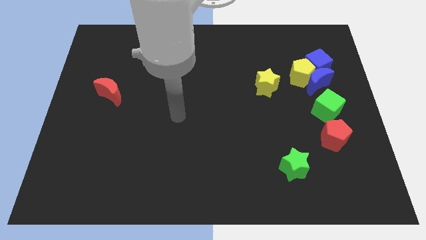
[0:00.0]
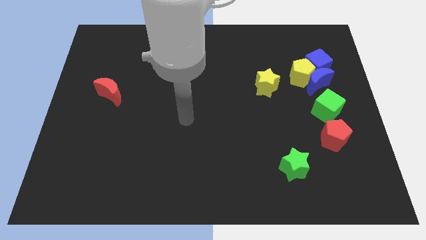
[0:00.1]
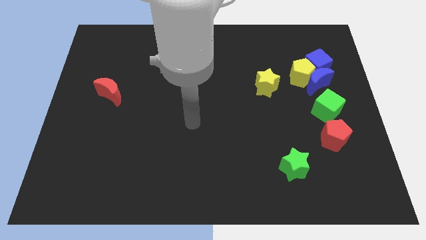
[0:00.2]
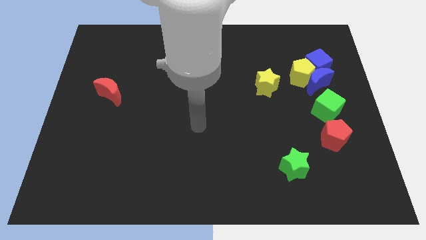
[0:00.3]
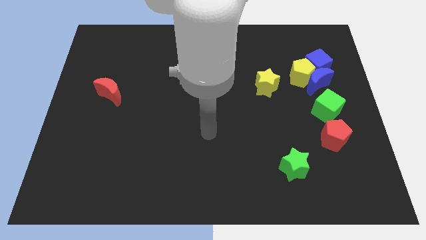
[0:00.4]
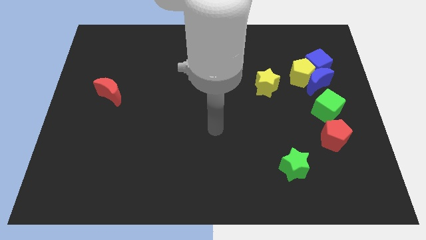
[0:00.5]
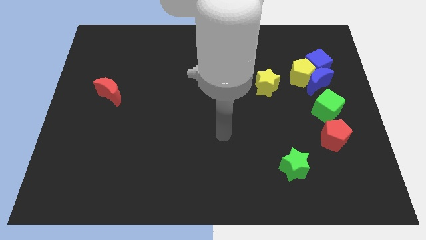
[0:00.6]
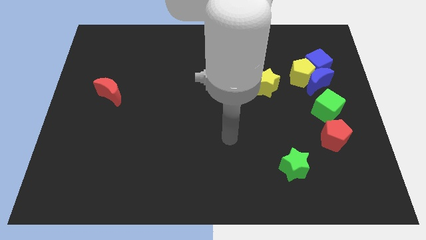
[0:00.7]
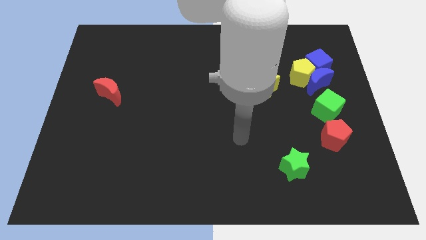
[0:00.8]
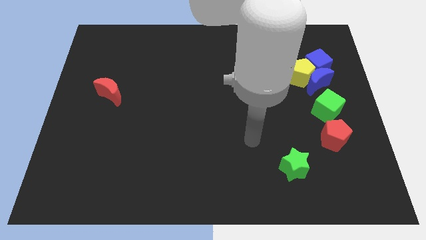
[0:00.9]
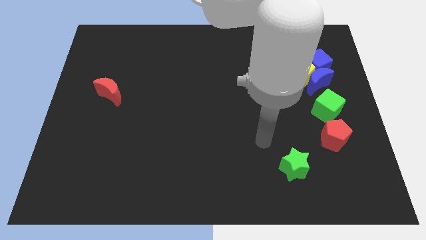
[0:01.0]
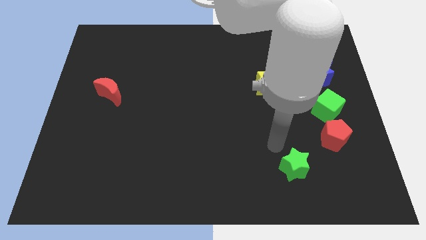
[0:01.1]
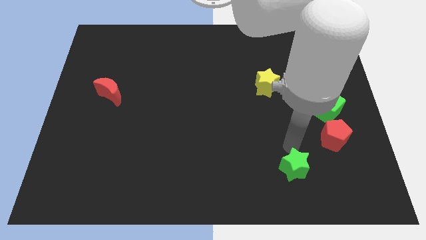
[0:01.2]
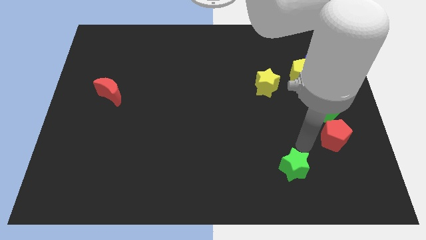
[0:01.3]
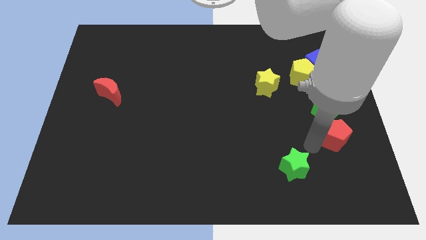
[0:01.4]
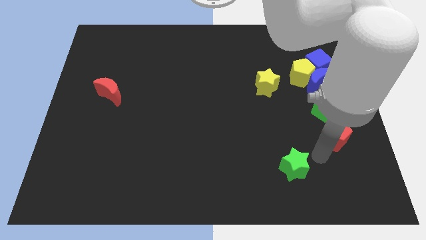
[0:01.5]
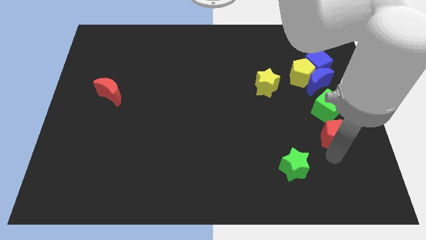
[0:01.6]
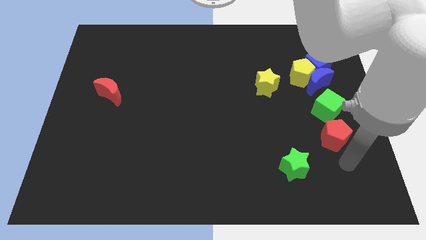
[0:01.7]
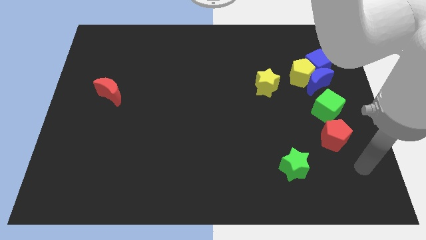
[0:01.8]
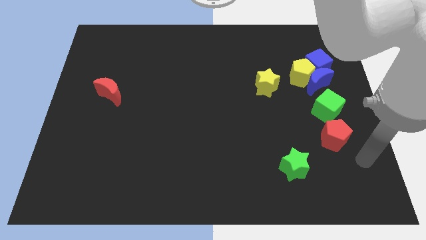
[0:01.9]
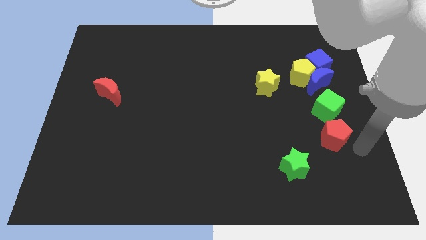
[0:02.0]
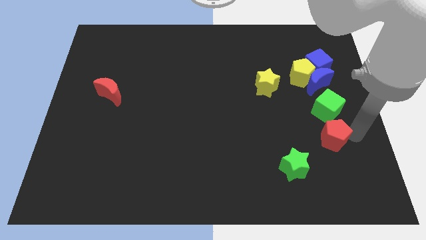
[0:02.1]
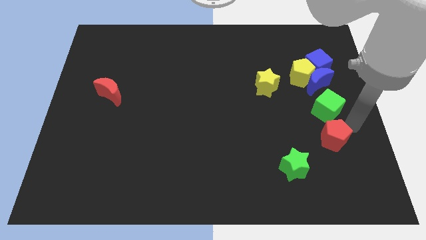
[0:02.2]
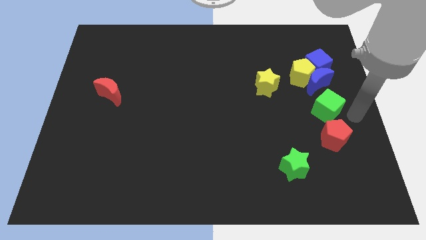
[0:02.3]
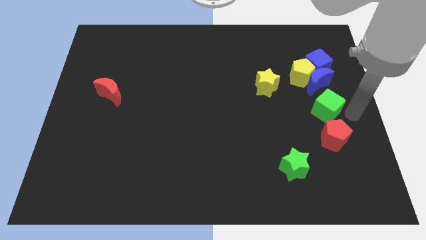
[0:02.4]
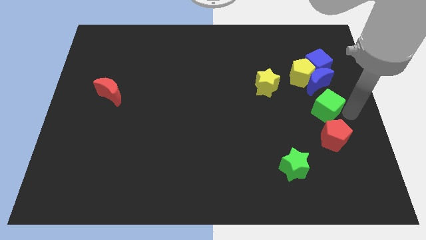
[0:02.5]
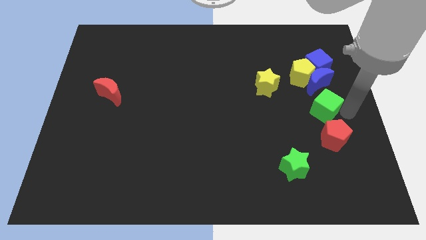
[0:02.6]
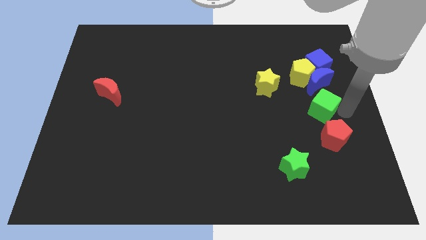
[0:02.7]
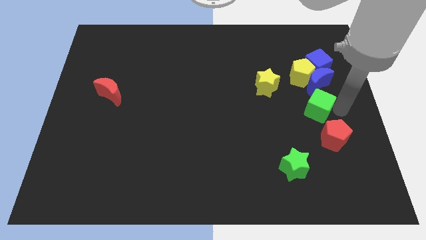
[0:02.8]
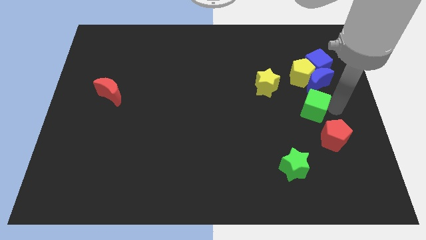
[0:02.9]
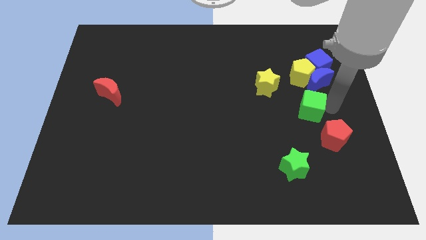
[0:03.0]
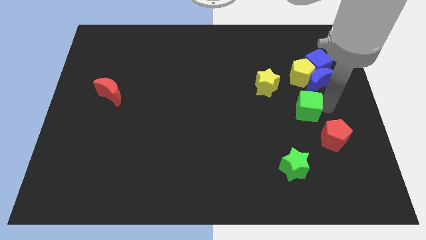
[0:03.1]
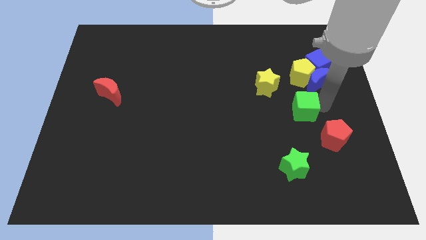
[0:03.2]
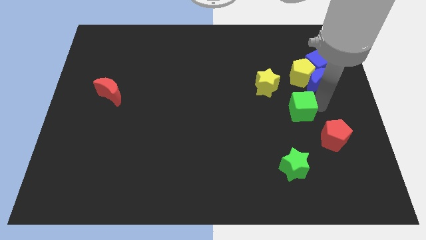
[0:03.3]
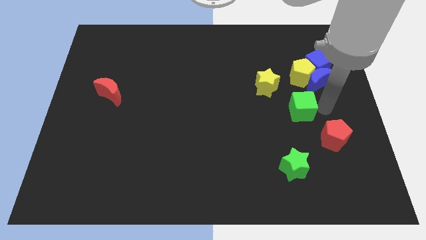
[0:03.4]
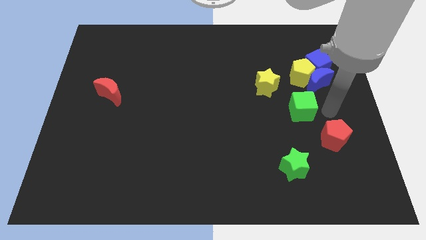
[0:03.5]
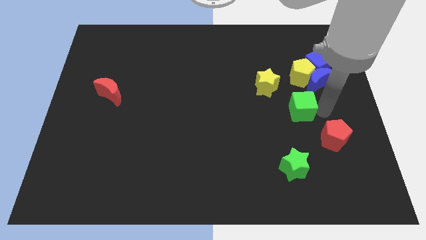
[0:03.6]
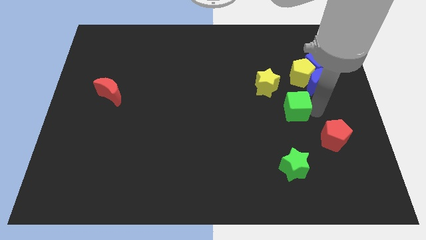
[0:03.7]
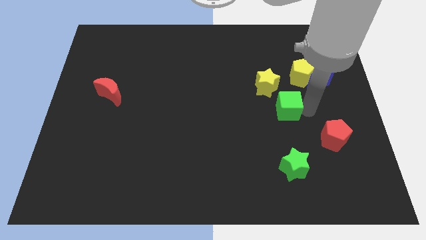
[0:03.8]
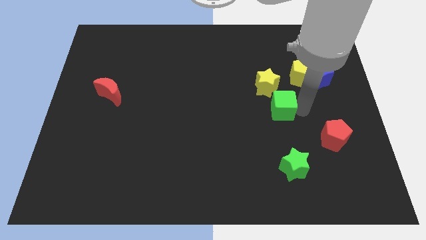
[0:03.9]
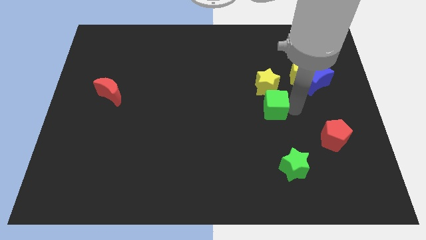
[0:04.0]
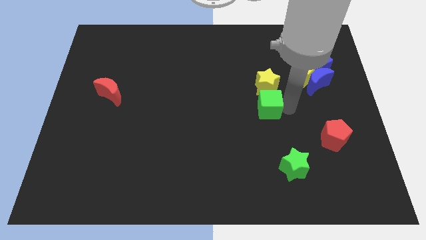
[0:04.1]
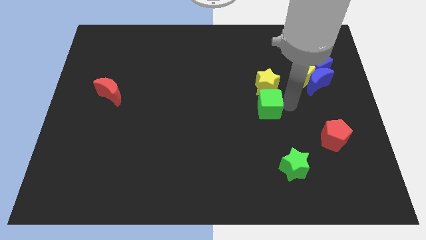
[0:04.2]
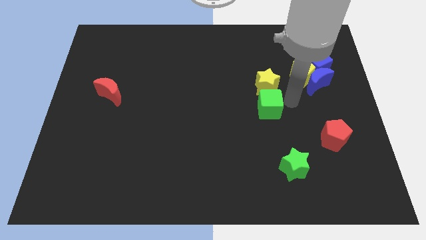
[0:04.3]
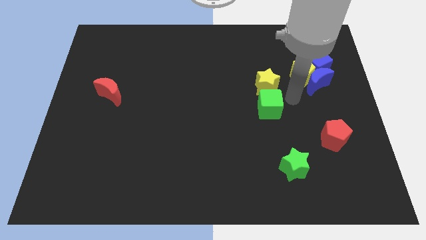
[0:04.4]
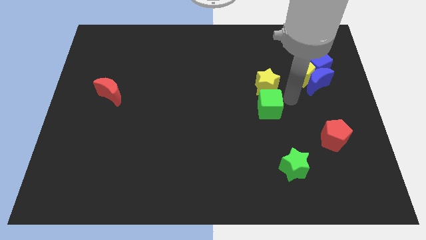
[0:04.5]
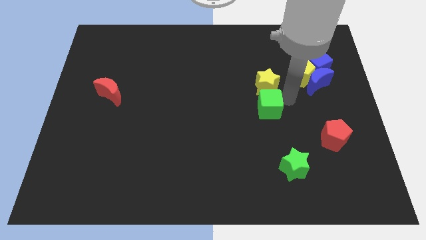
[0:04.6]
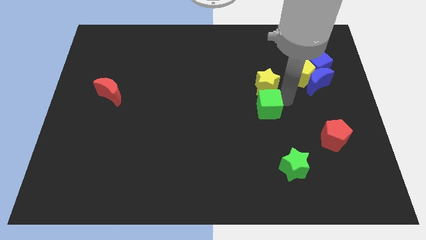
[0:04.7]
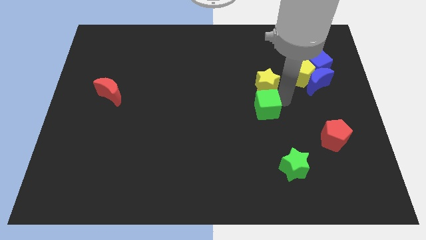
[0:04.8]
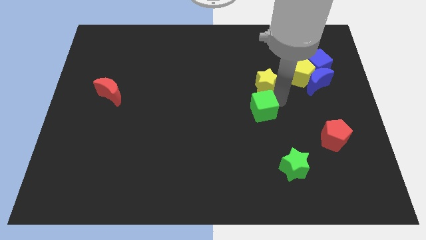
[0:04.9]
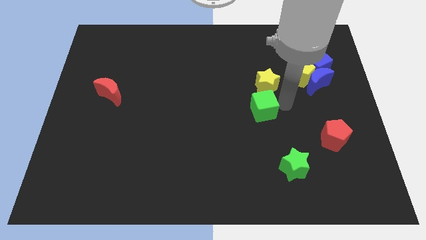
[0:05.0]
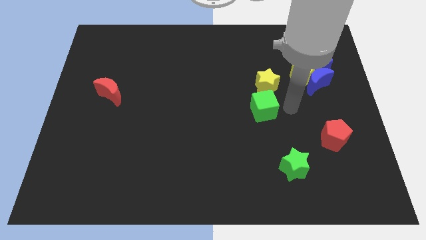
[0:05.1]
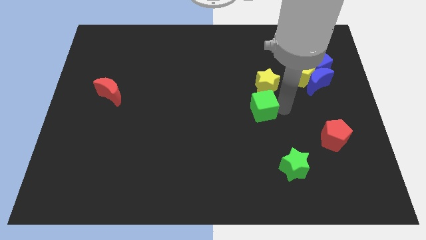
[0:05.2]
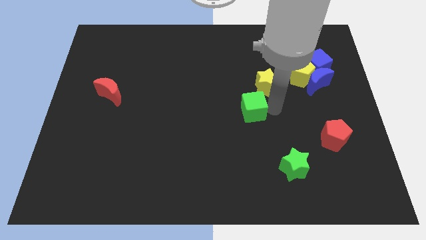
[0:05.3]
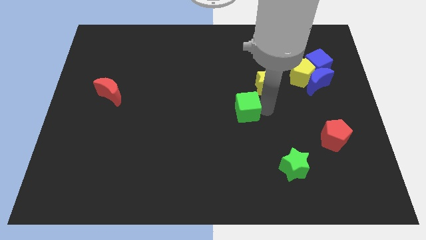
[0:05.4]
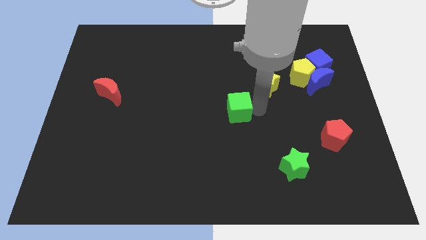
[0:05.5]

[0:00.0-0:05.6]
slide the green cube left

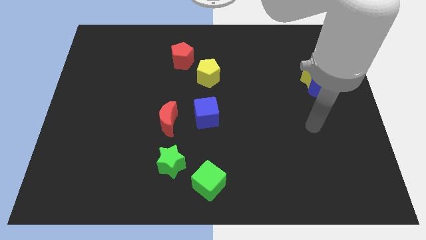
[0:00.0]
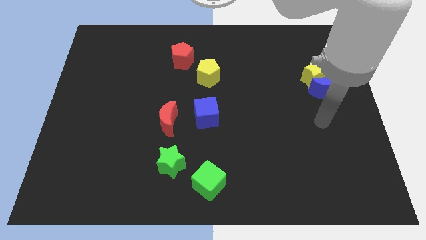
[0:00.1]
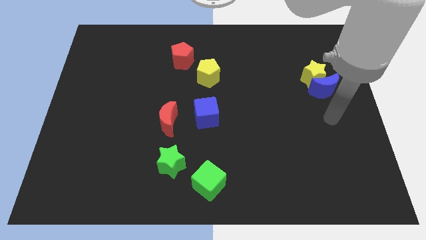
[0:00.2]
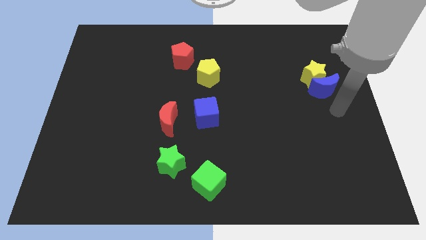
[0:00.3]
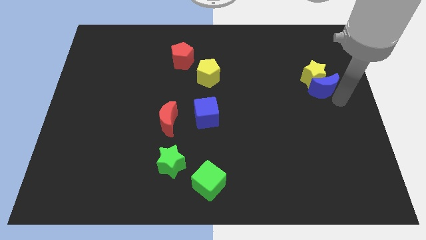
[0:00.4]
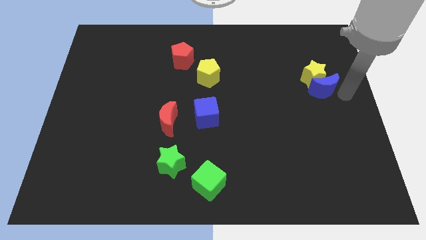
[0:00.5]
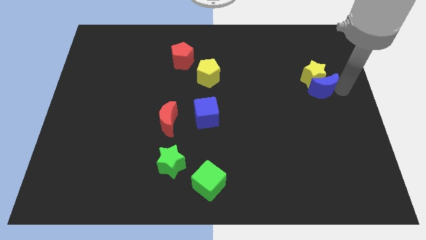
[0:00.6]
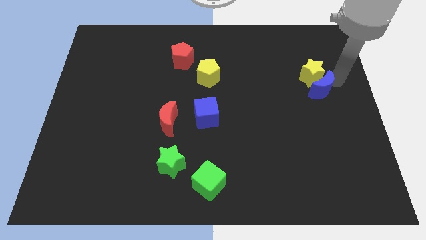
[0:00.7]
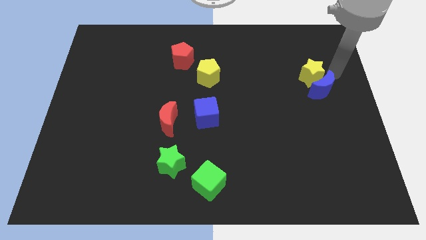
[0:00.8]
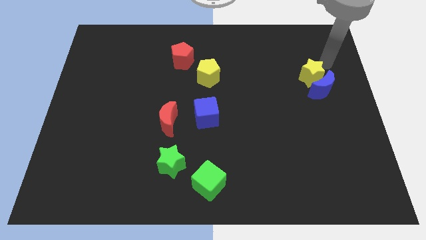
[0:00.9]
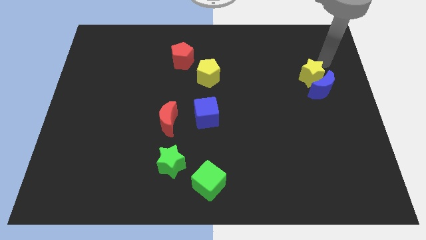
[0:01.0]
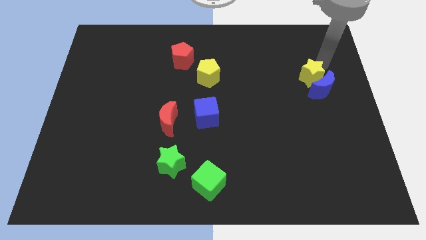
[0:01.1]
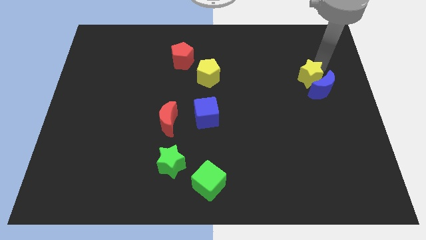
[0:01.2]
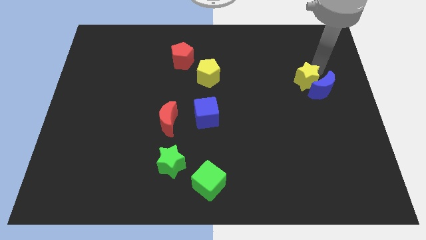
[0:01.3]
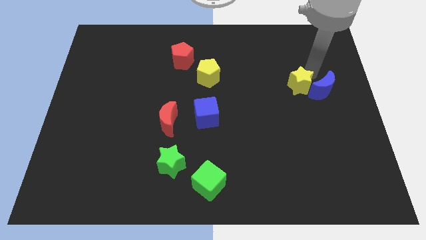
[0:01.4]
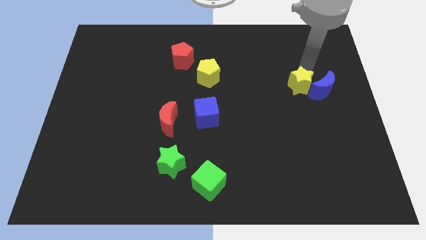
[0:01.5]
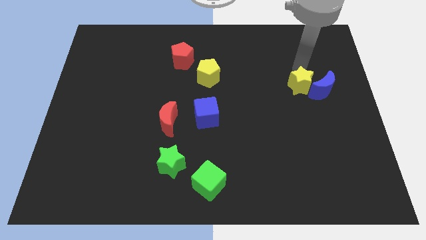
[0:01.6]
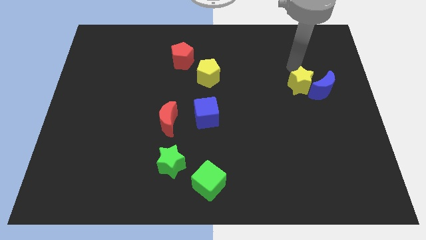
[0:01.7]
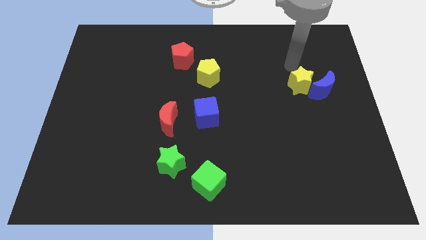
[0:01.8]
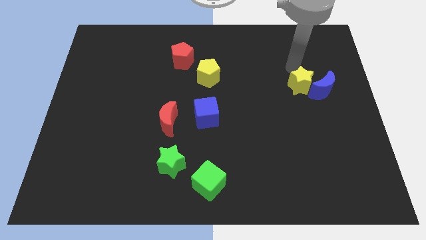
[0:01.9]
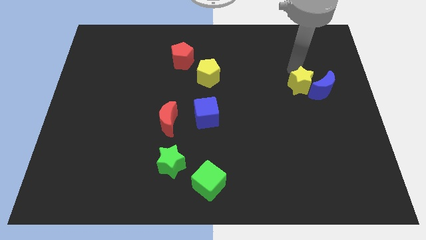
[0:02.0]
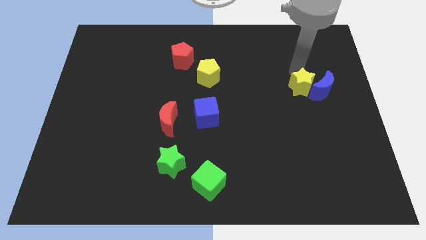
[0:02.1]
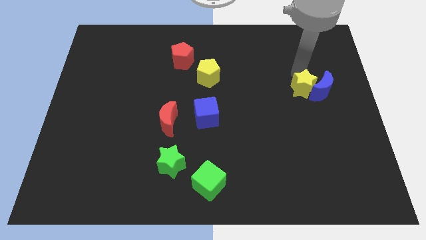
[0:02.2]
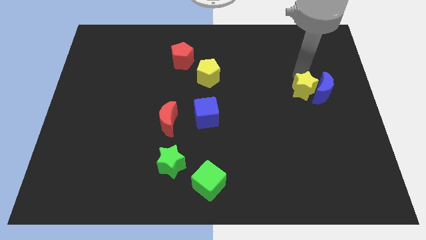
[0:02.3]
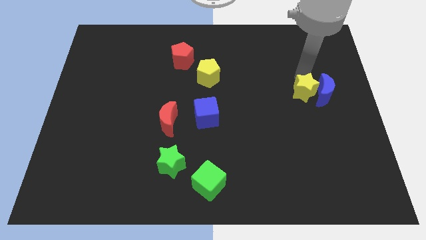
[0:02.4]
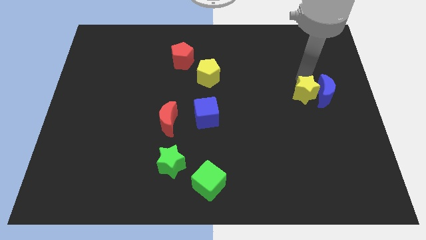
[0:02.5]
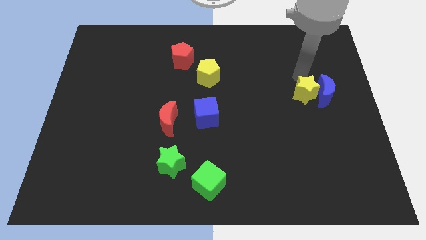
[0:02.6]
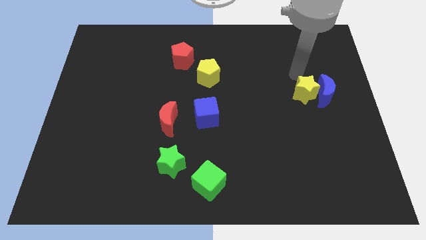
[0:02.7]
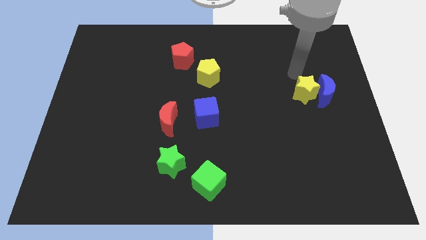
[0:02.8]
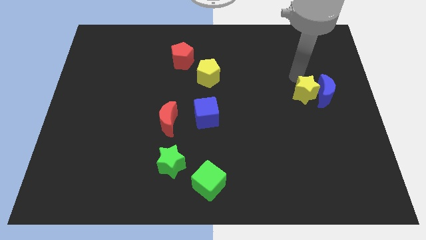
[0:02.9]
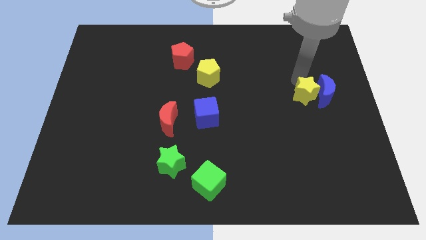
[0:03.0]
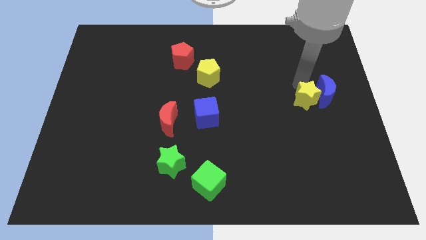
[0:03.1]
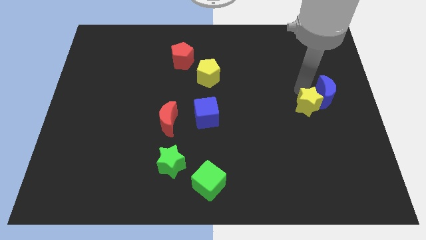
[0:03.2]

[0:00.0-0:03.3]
slide the yellow star slightly down
